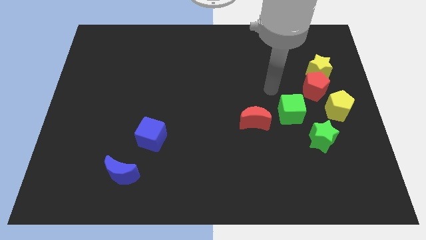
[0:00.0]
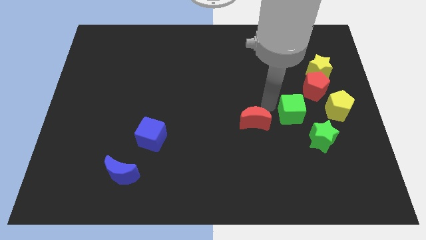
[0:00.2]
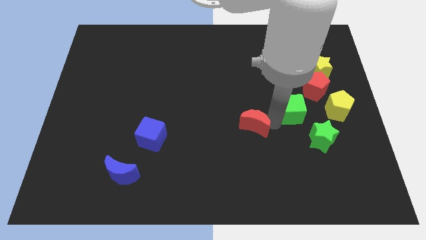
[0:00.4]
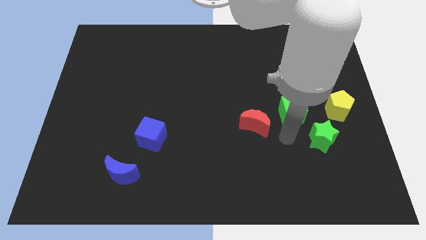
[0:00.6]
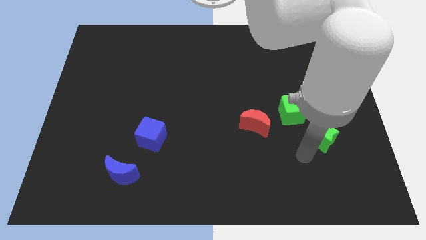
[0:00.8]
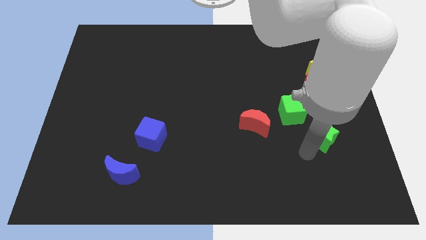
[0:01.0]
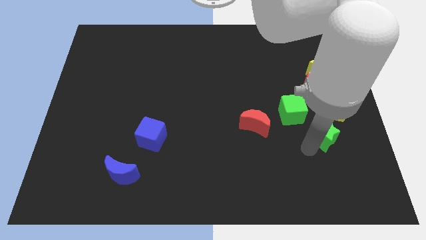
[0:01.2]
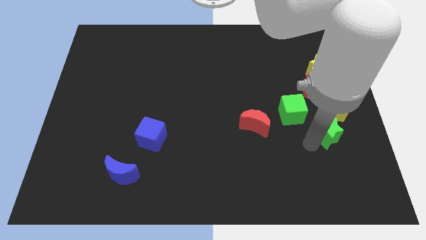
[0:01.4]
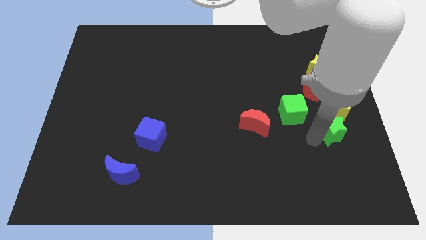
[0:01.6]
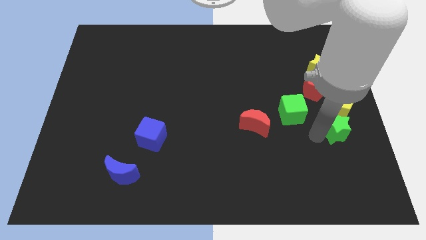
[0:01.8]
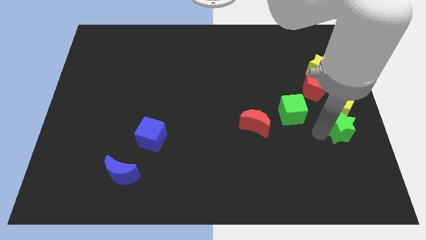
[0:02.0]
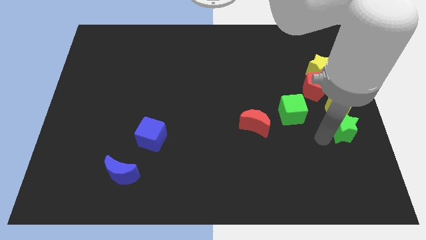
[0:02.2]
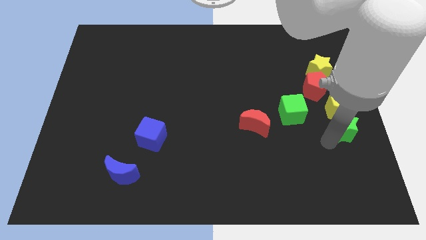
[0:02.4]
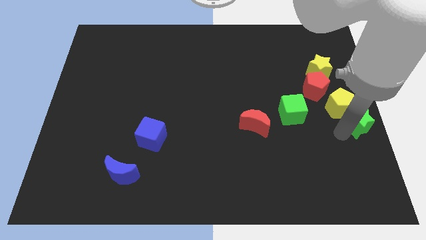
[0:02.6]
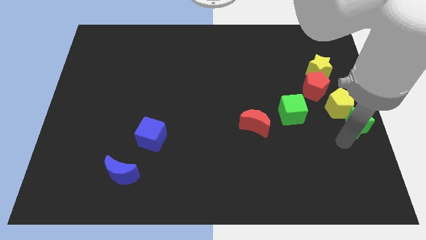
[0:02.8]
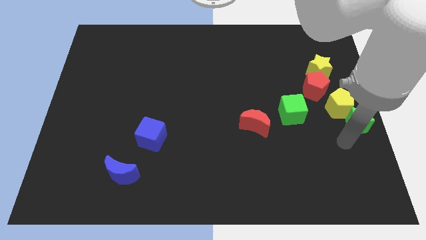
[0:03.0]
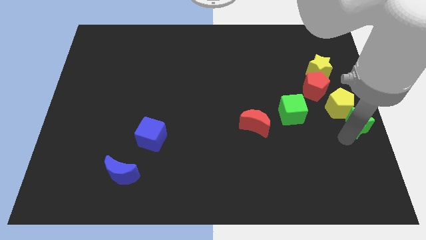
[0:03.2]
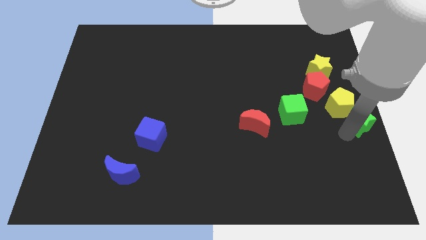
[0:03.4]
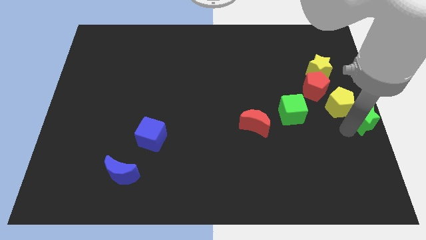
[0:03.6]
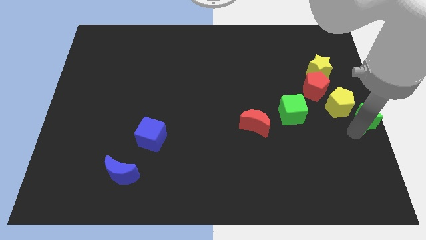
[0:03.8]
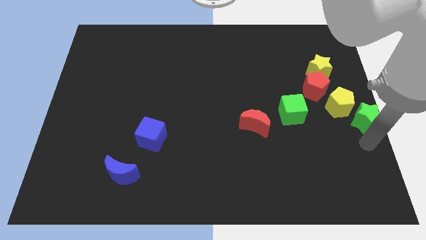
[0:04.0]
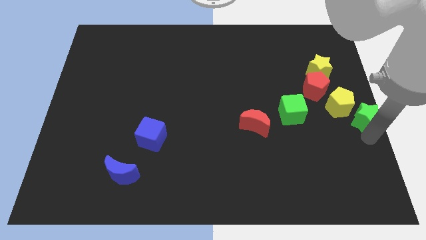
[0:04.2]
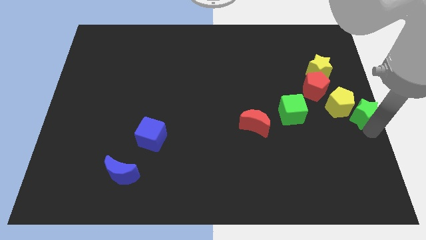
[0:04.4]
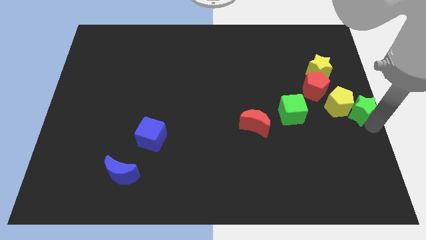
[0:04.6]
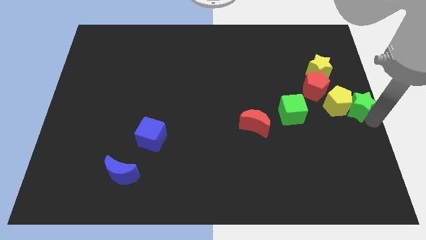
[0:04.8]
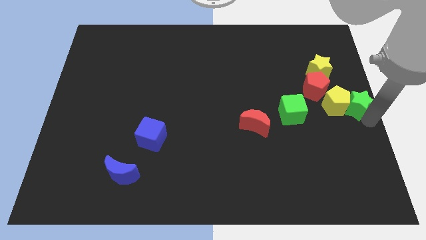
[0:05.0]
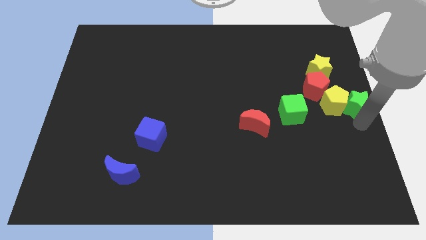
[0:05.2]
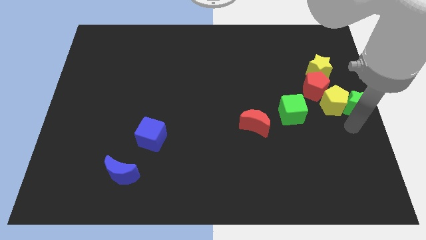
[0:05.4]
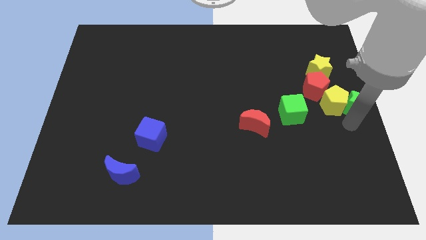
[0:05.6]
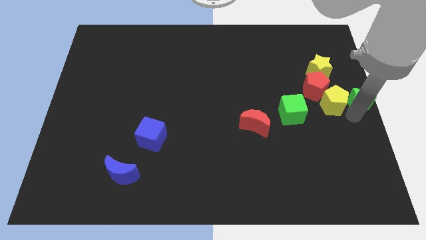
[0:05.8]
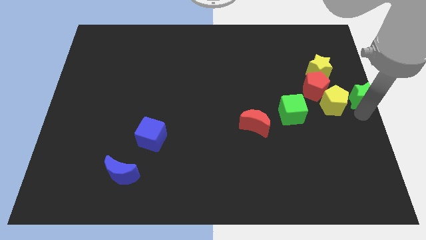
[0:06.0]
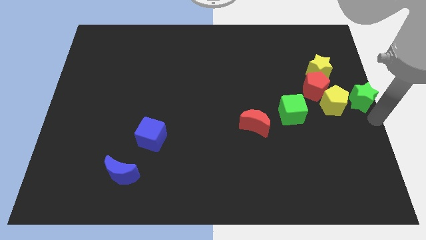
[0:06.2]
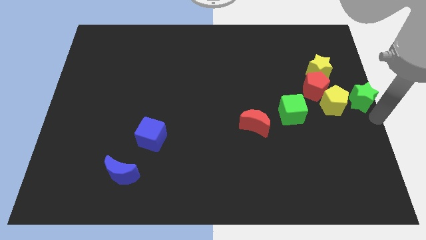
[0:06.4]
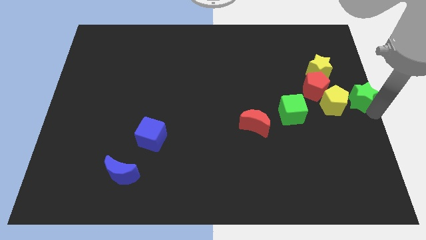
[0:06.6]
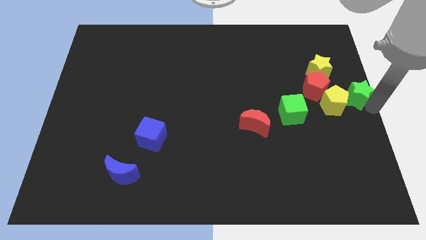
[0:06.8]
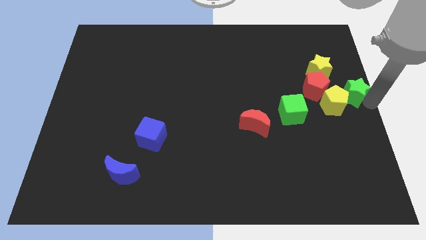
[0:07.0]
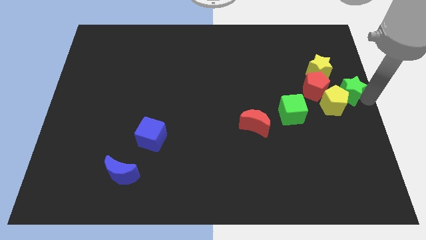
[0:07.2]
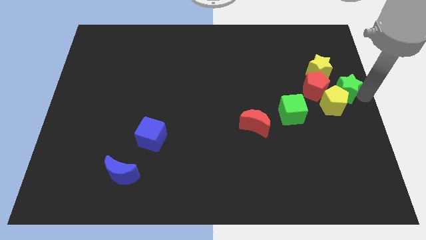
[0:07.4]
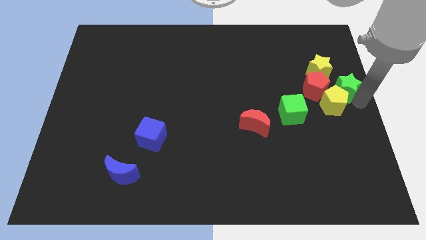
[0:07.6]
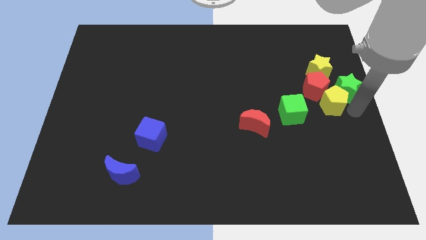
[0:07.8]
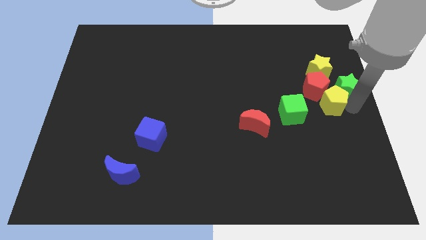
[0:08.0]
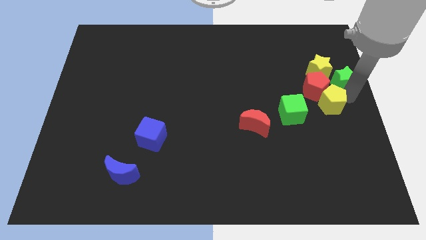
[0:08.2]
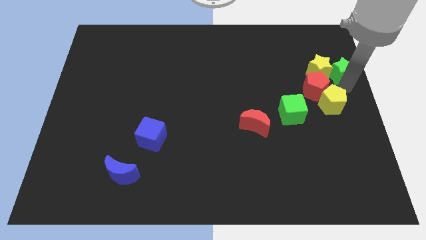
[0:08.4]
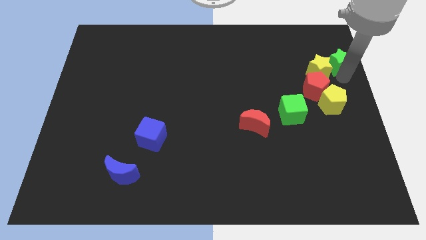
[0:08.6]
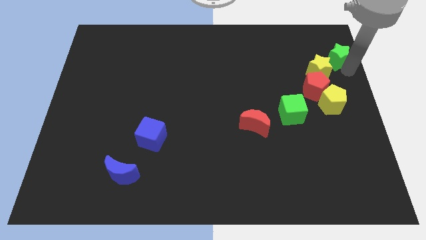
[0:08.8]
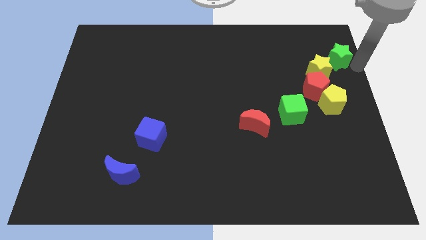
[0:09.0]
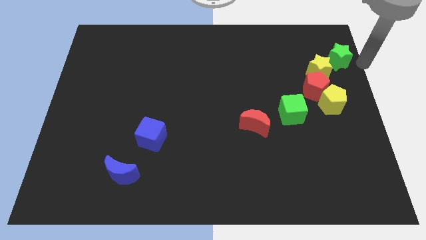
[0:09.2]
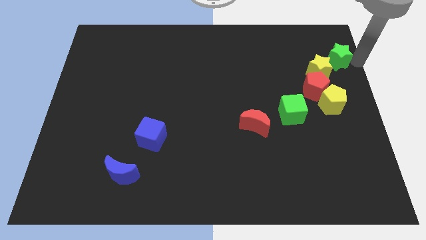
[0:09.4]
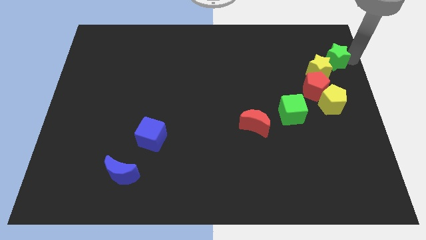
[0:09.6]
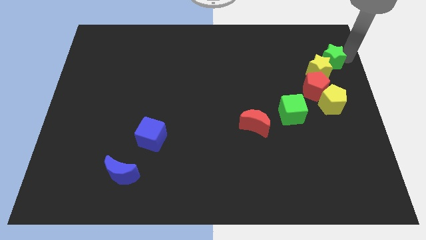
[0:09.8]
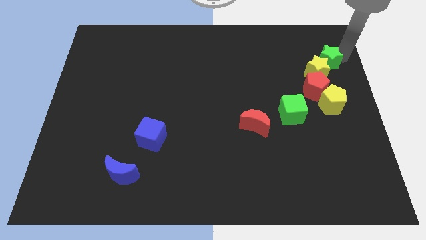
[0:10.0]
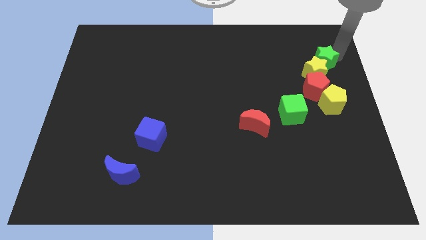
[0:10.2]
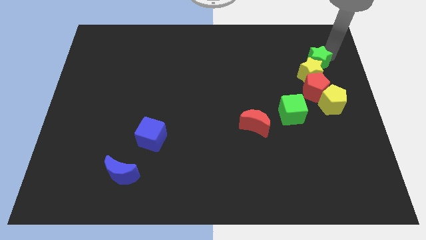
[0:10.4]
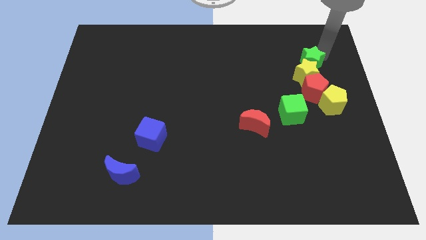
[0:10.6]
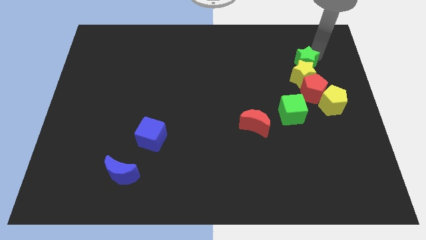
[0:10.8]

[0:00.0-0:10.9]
slide the green star to the top left of the yellow star

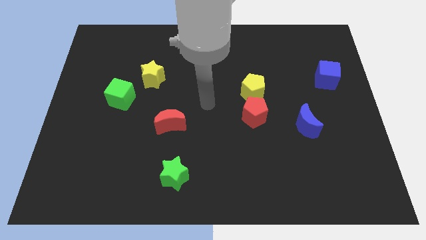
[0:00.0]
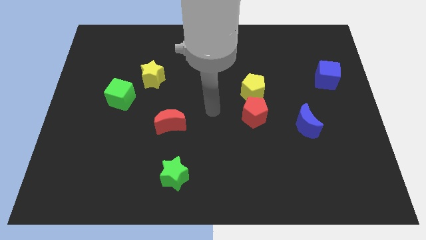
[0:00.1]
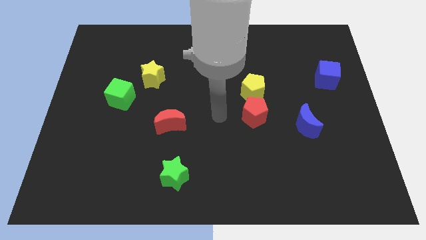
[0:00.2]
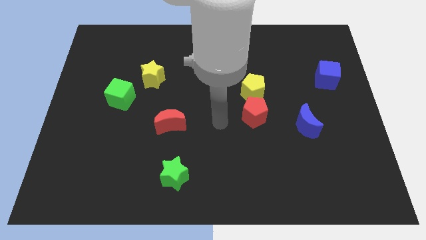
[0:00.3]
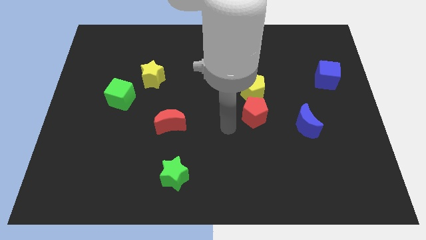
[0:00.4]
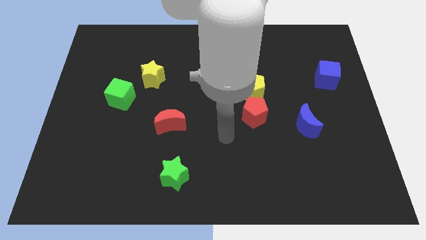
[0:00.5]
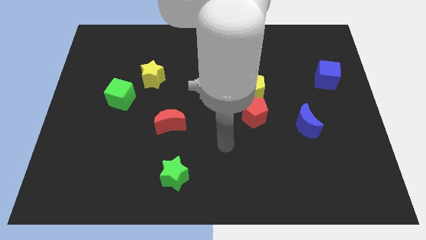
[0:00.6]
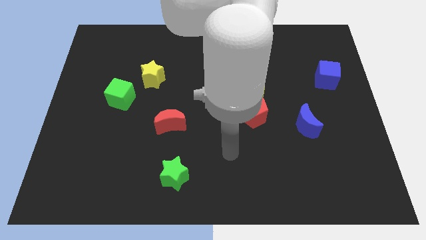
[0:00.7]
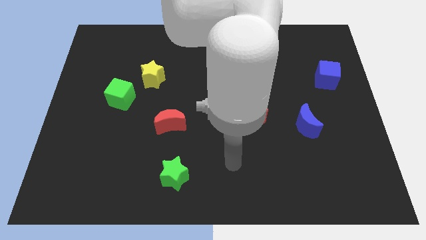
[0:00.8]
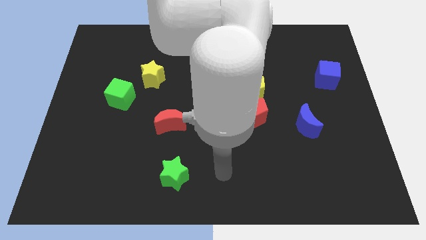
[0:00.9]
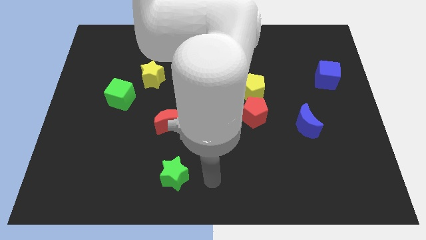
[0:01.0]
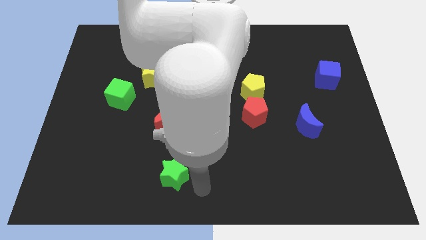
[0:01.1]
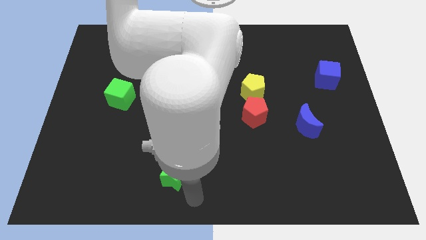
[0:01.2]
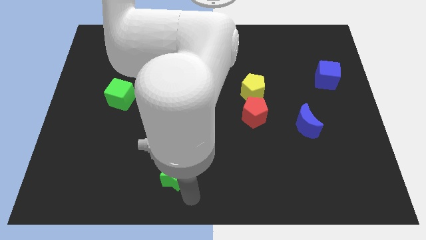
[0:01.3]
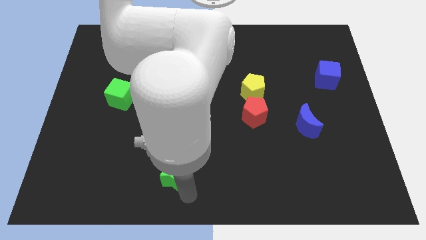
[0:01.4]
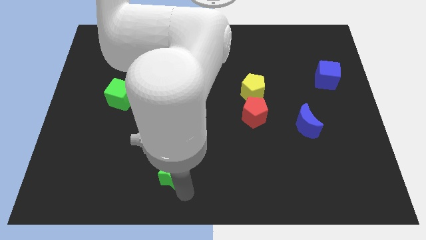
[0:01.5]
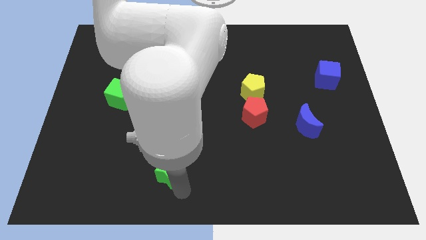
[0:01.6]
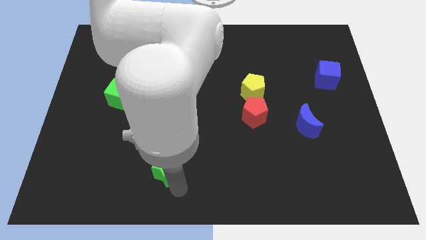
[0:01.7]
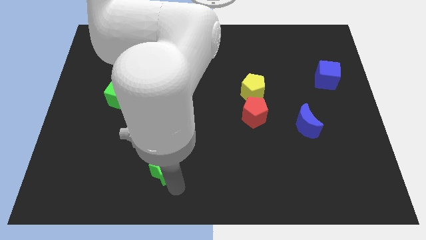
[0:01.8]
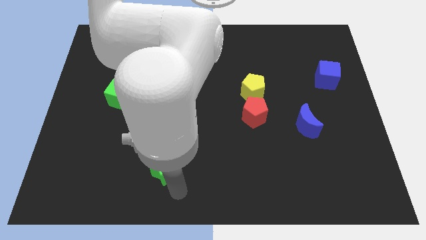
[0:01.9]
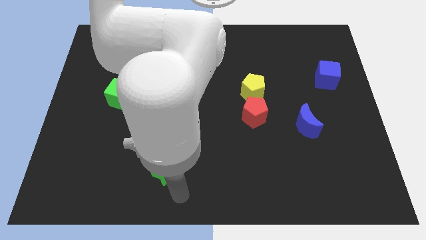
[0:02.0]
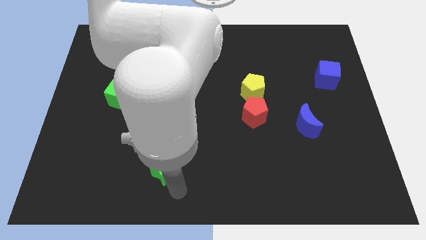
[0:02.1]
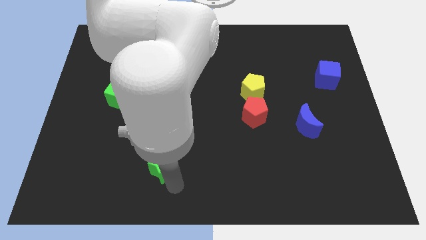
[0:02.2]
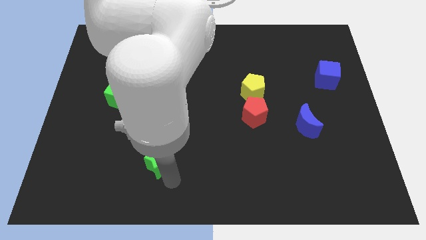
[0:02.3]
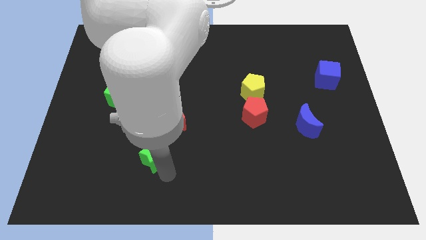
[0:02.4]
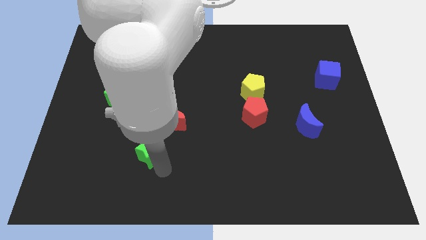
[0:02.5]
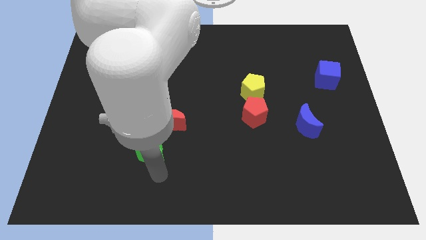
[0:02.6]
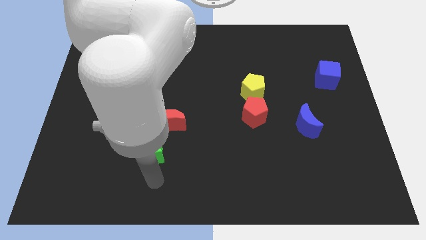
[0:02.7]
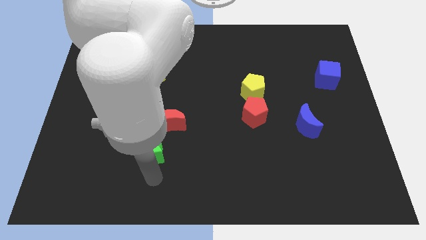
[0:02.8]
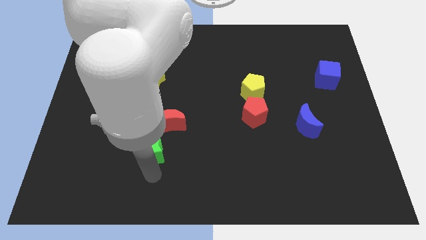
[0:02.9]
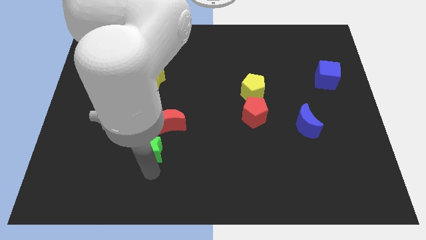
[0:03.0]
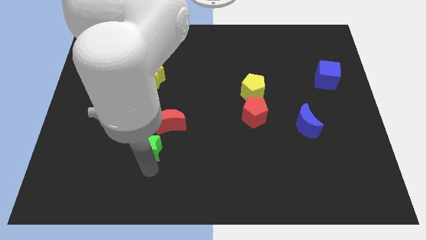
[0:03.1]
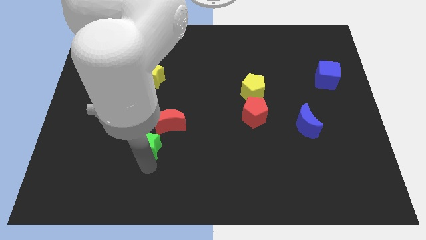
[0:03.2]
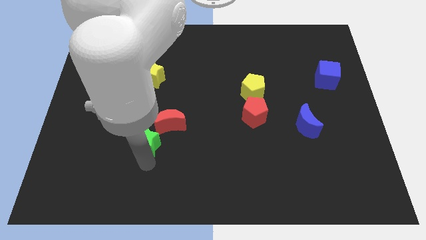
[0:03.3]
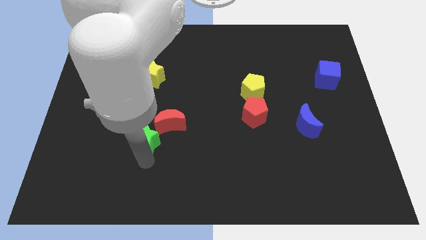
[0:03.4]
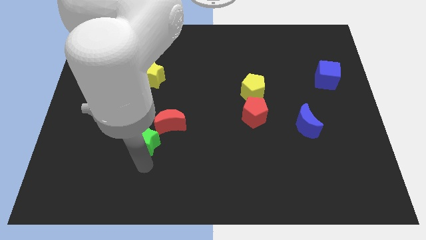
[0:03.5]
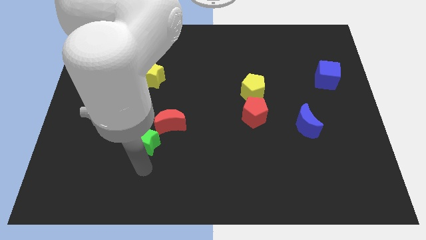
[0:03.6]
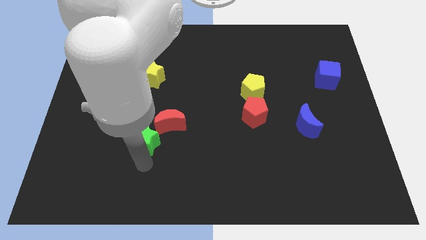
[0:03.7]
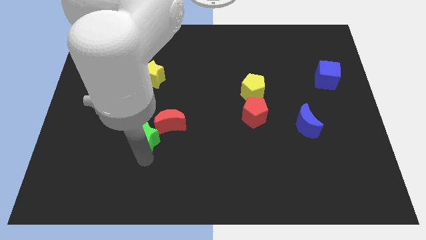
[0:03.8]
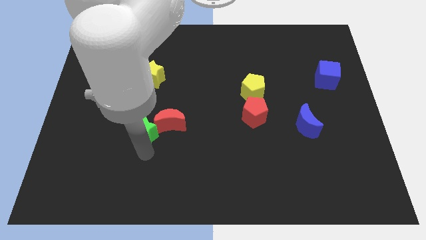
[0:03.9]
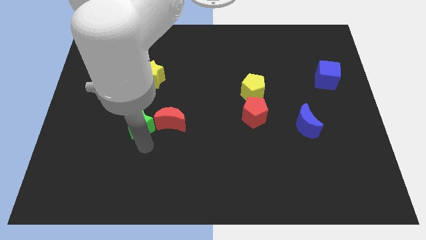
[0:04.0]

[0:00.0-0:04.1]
push the green star below the yellow star
